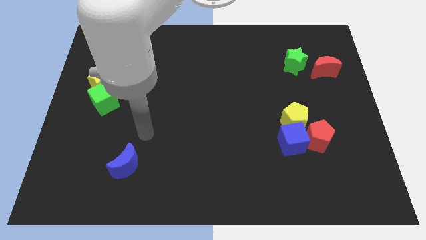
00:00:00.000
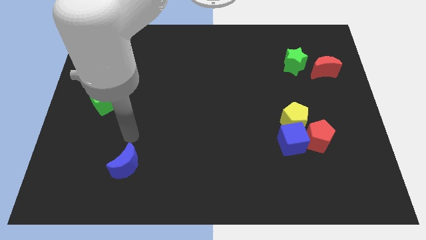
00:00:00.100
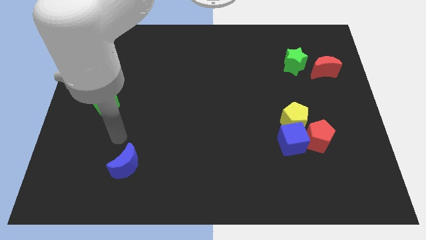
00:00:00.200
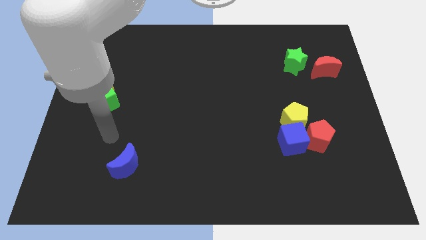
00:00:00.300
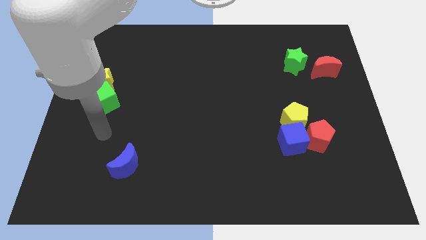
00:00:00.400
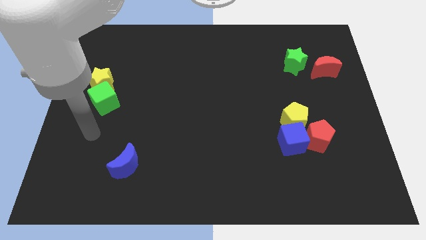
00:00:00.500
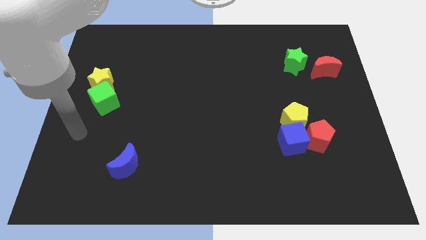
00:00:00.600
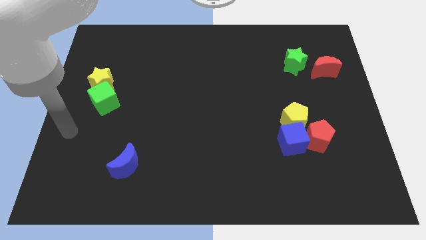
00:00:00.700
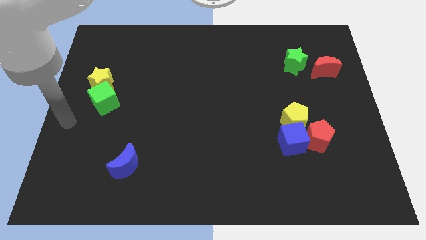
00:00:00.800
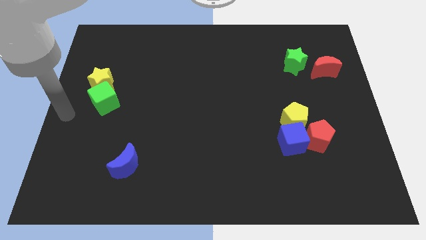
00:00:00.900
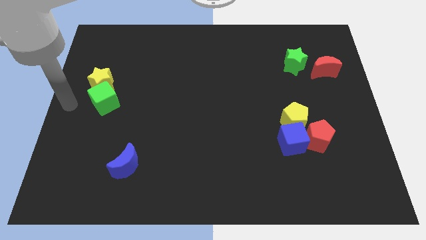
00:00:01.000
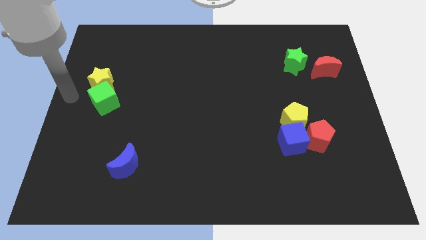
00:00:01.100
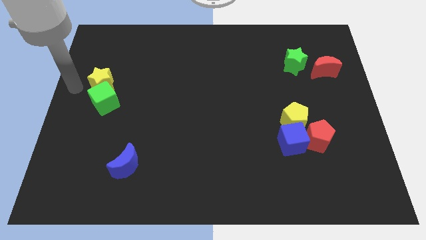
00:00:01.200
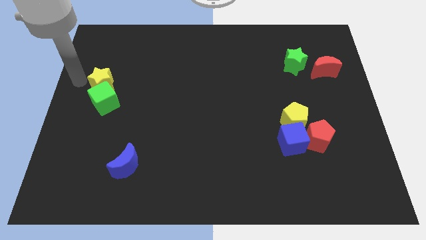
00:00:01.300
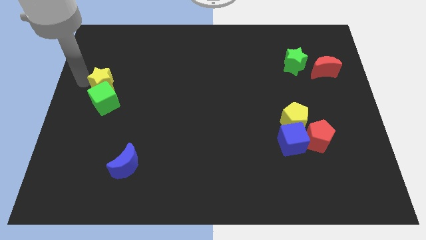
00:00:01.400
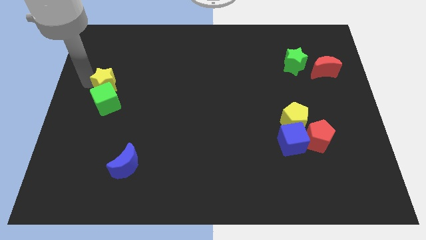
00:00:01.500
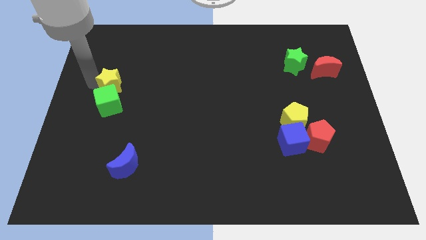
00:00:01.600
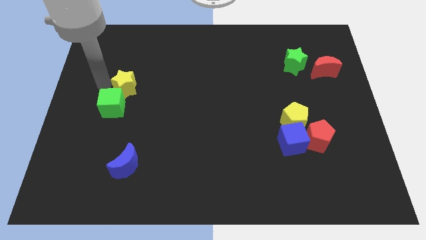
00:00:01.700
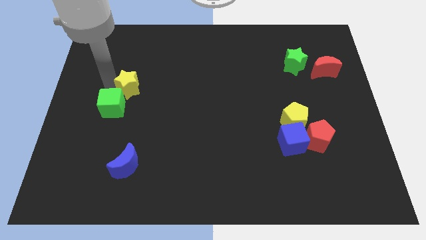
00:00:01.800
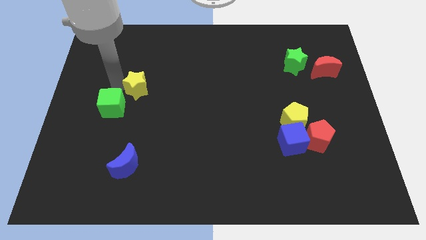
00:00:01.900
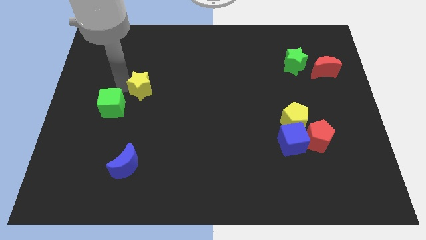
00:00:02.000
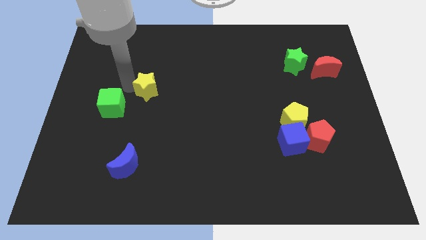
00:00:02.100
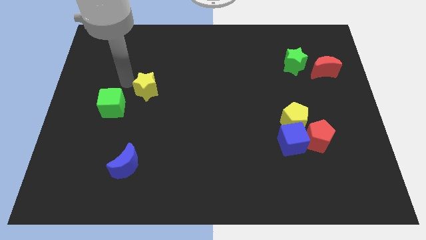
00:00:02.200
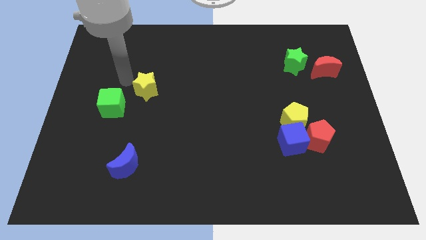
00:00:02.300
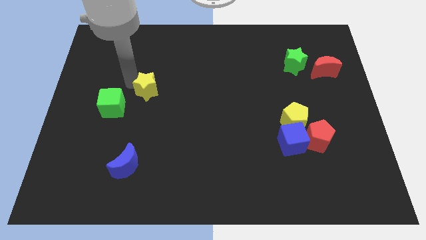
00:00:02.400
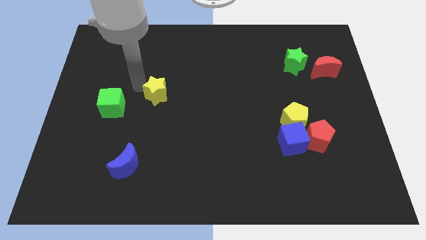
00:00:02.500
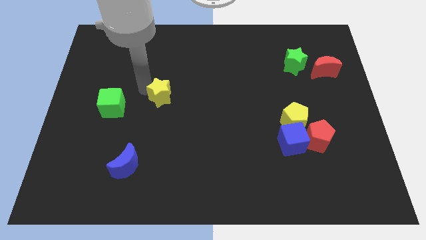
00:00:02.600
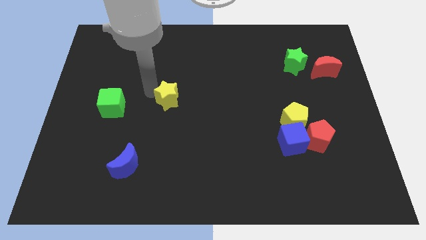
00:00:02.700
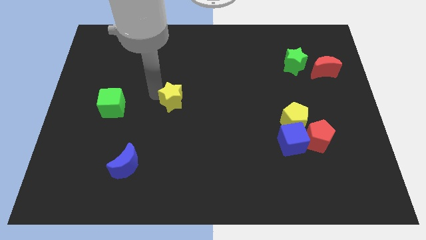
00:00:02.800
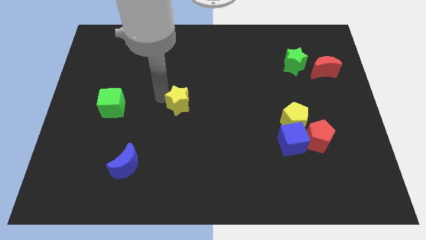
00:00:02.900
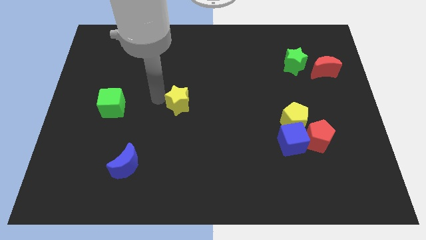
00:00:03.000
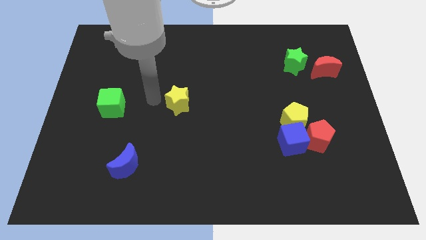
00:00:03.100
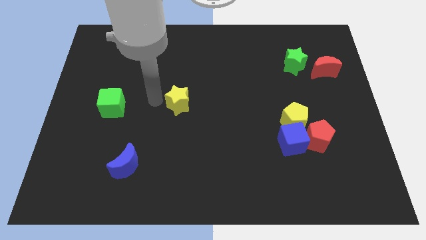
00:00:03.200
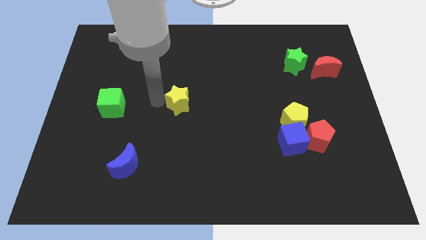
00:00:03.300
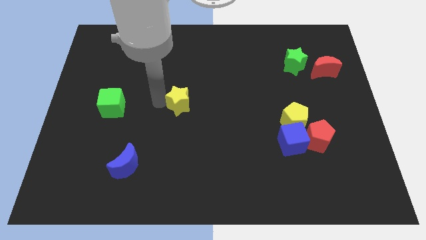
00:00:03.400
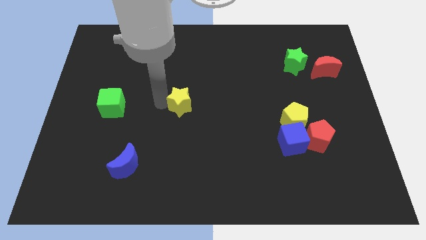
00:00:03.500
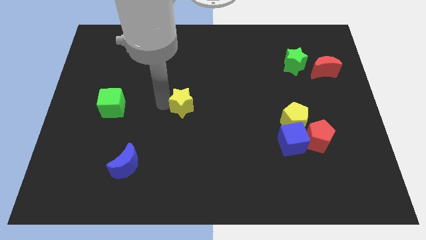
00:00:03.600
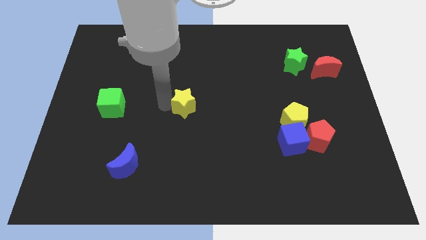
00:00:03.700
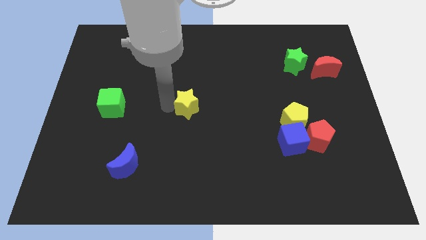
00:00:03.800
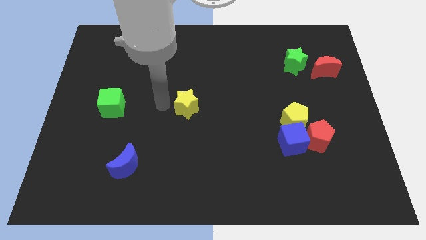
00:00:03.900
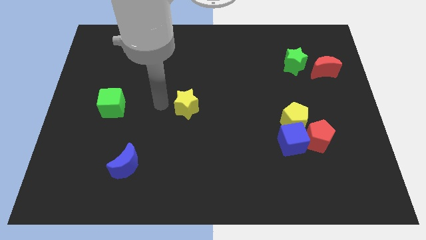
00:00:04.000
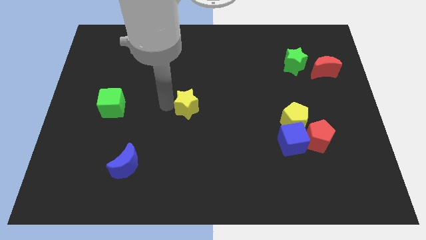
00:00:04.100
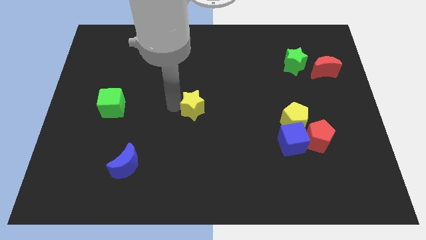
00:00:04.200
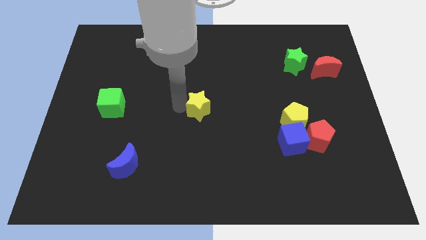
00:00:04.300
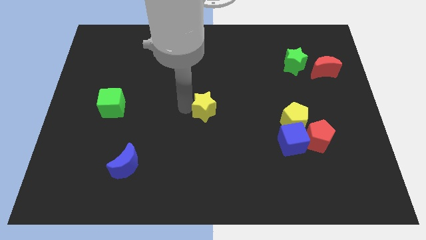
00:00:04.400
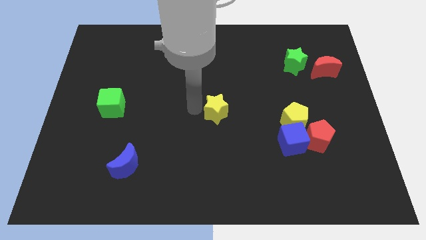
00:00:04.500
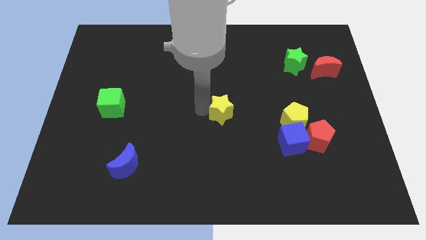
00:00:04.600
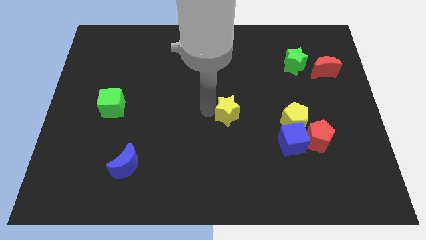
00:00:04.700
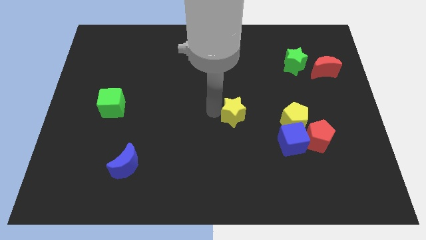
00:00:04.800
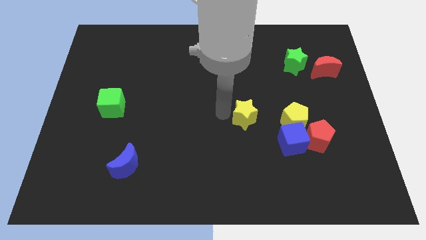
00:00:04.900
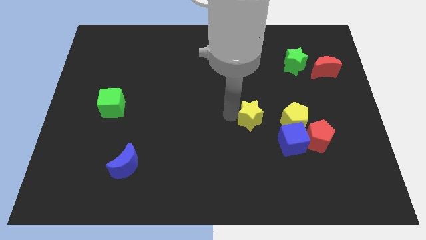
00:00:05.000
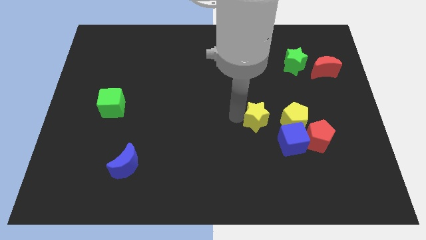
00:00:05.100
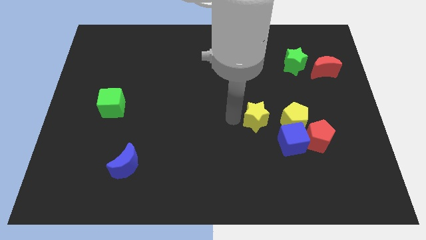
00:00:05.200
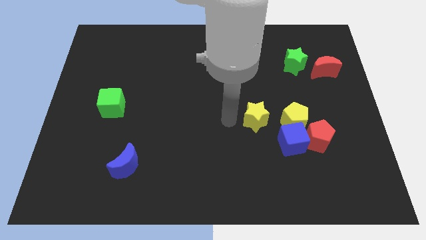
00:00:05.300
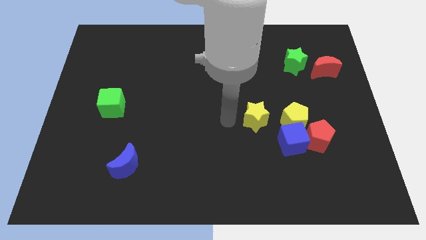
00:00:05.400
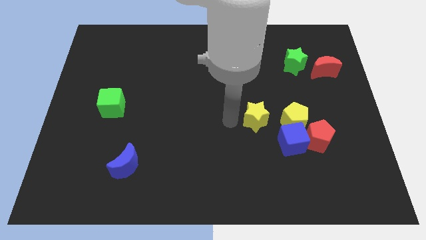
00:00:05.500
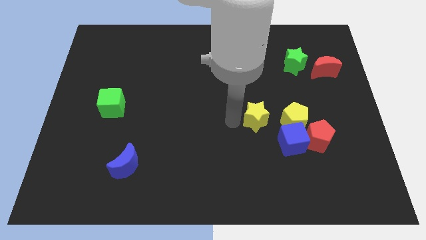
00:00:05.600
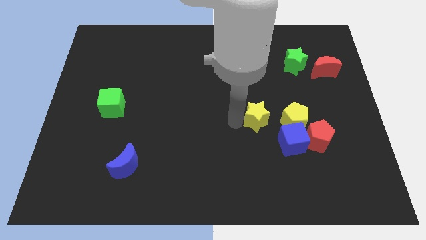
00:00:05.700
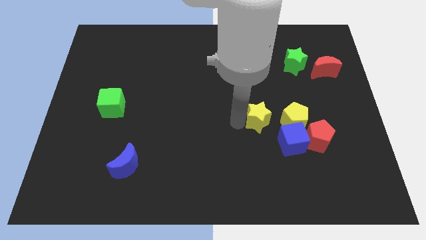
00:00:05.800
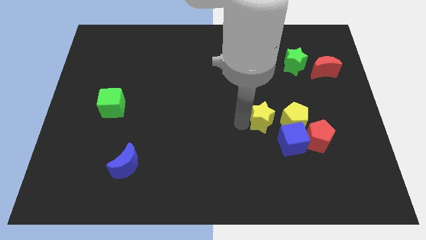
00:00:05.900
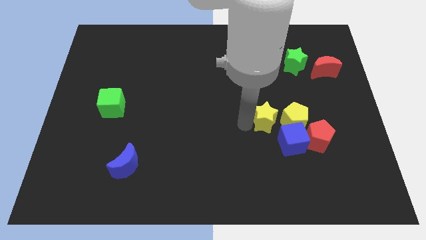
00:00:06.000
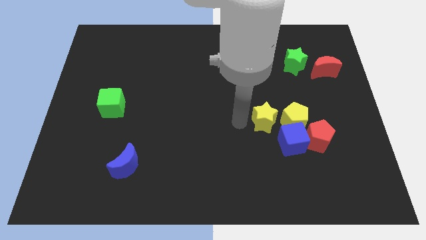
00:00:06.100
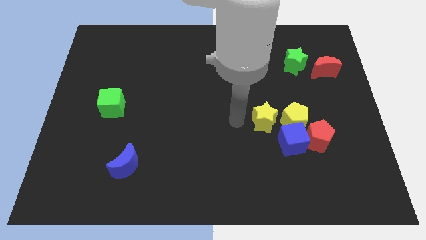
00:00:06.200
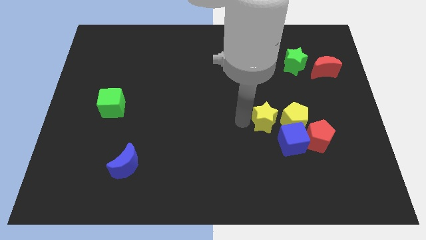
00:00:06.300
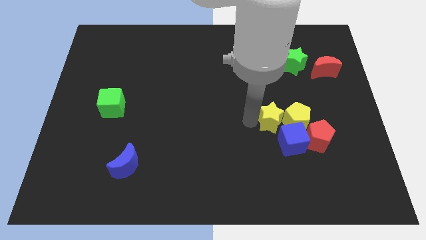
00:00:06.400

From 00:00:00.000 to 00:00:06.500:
slide the yellow star towards the yellow pentagon

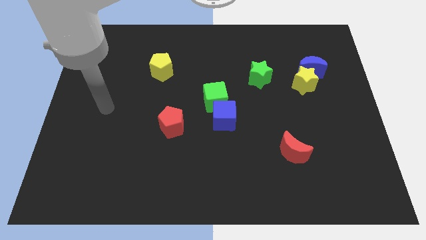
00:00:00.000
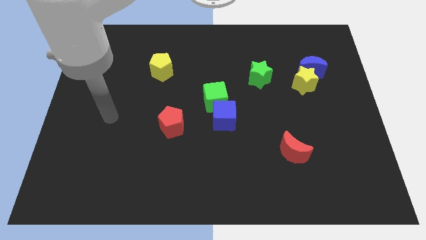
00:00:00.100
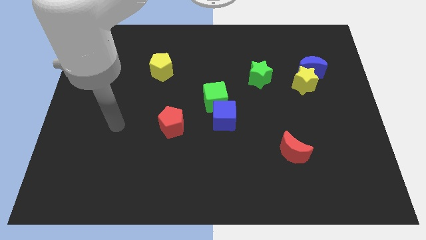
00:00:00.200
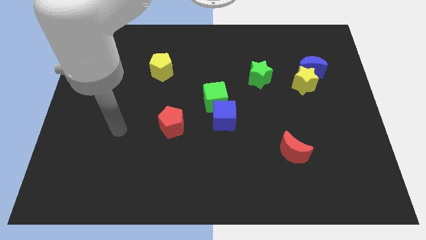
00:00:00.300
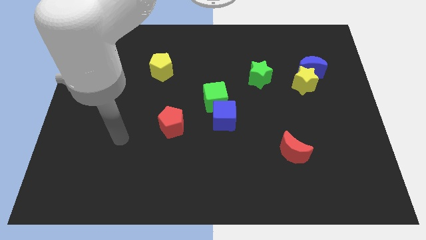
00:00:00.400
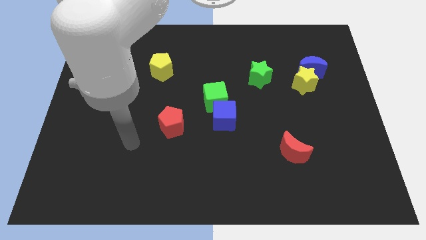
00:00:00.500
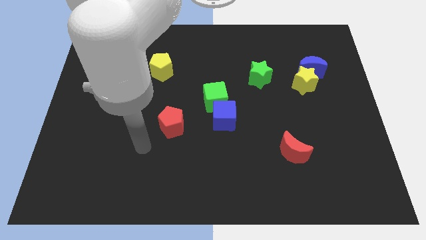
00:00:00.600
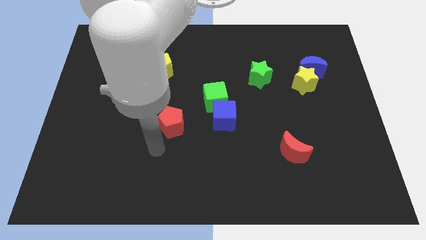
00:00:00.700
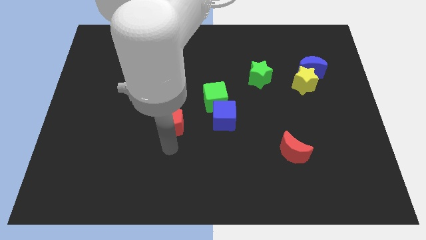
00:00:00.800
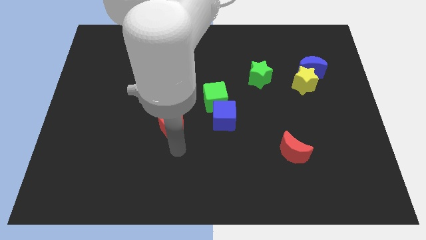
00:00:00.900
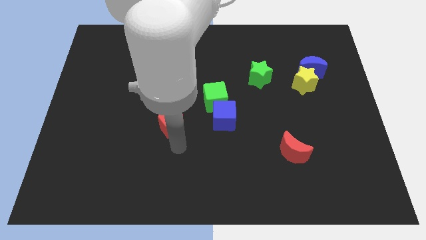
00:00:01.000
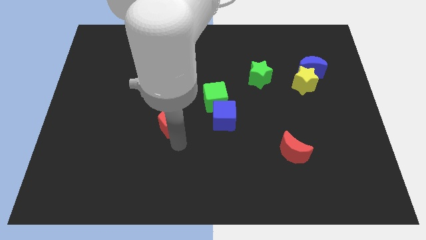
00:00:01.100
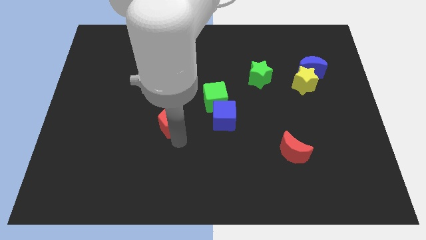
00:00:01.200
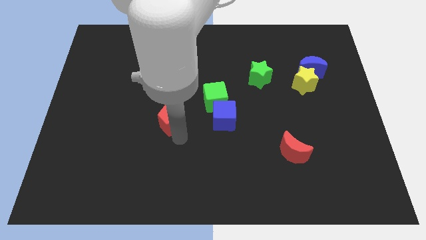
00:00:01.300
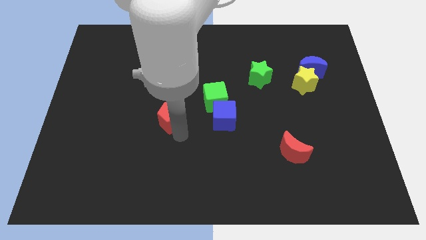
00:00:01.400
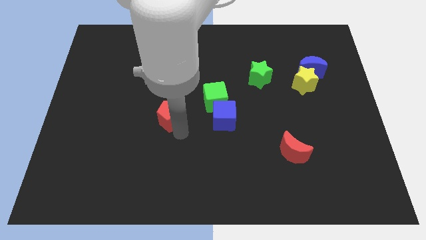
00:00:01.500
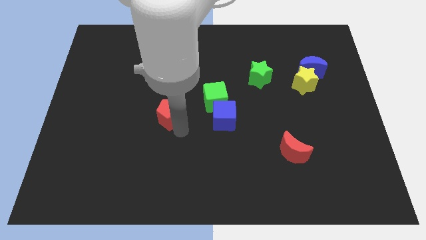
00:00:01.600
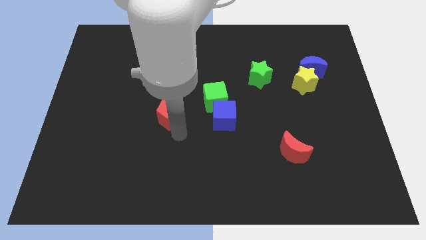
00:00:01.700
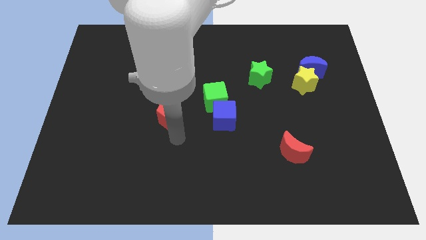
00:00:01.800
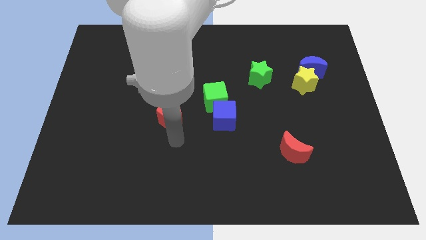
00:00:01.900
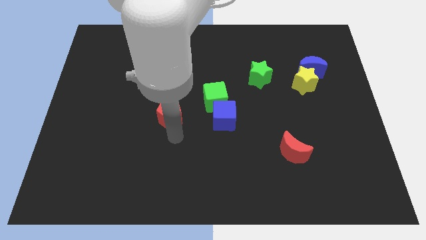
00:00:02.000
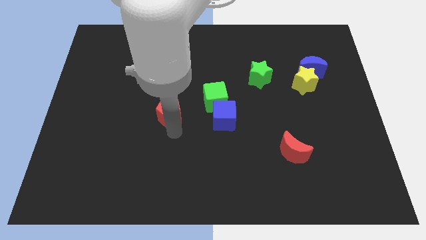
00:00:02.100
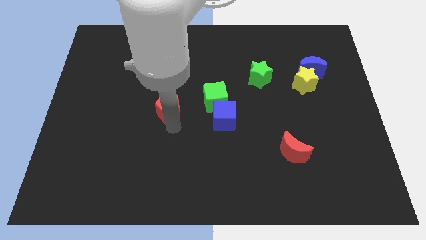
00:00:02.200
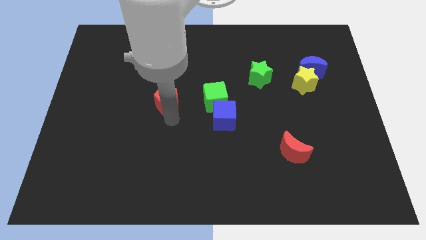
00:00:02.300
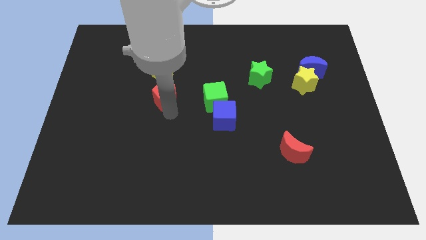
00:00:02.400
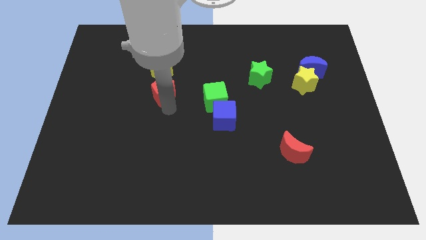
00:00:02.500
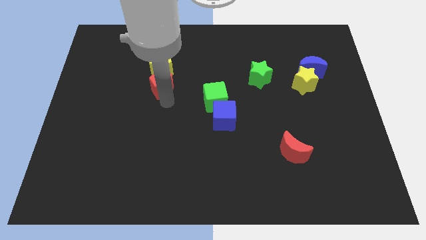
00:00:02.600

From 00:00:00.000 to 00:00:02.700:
put the red pentagon towards the yellow pentagon
